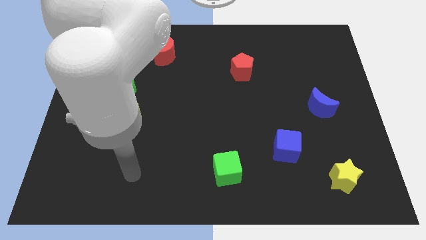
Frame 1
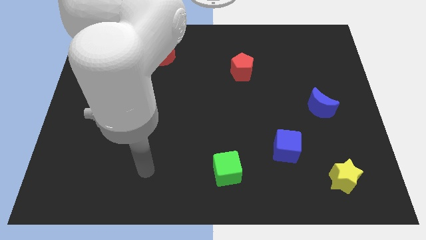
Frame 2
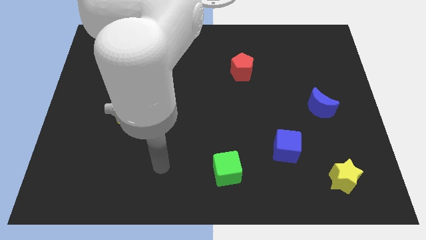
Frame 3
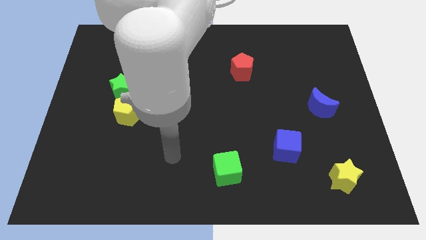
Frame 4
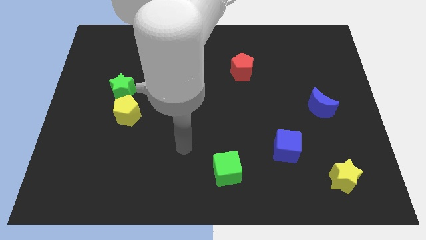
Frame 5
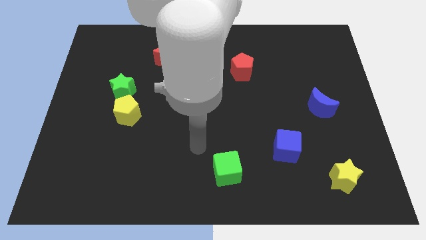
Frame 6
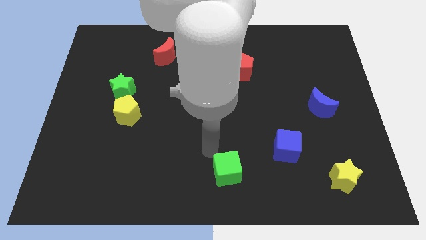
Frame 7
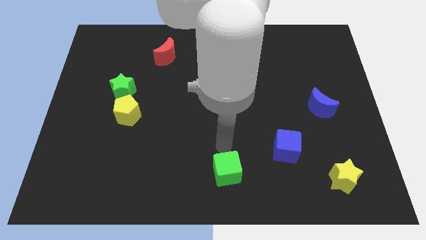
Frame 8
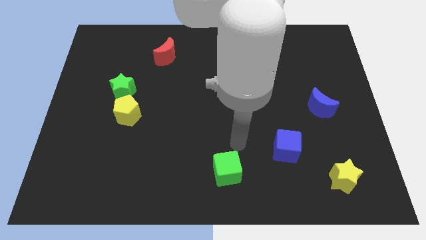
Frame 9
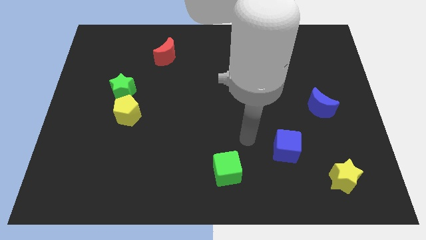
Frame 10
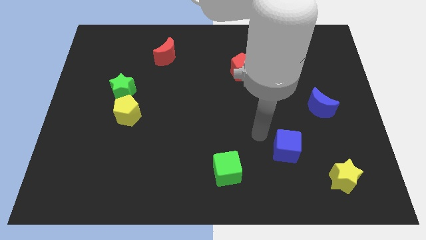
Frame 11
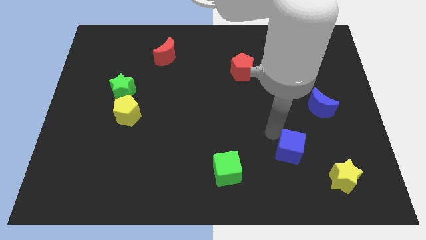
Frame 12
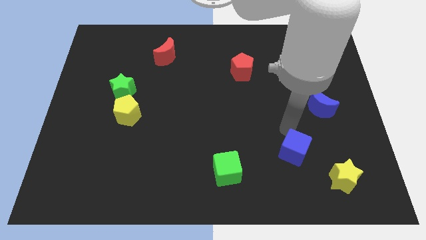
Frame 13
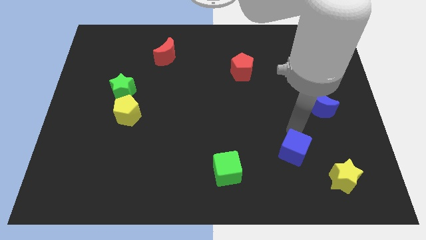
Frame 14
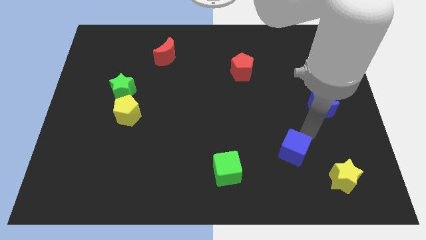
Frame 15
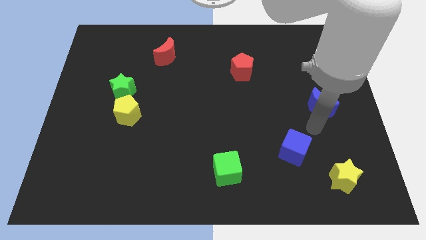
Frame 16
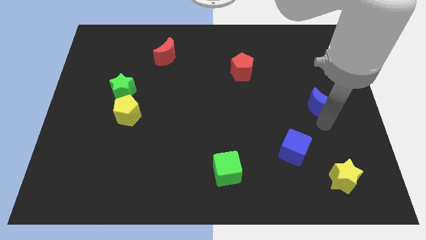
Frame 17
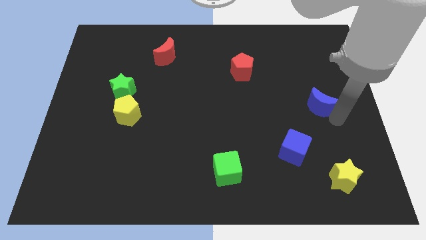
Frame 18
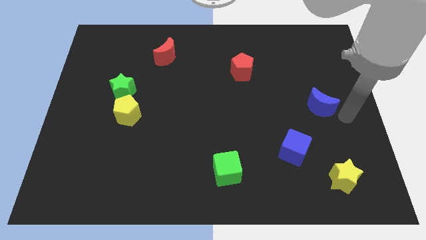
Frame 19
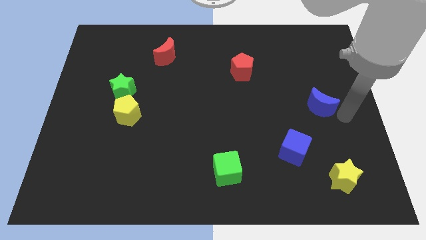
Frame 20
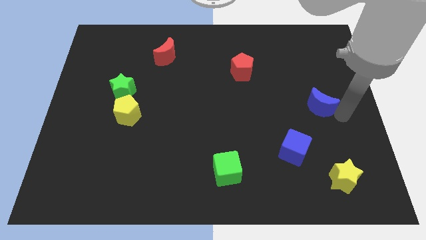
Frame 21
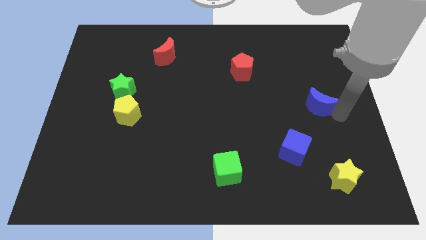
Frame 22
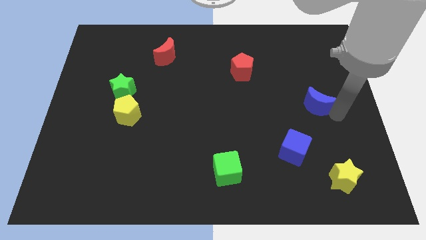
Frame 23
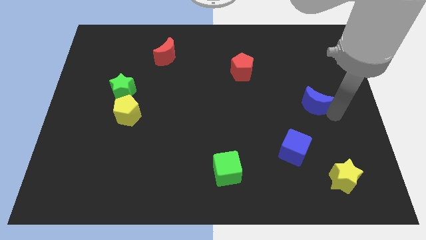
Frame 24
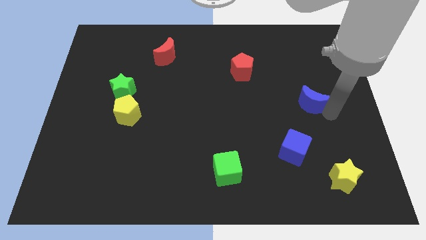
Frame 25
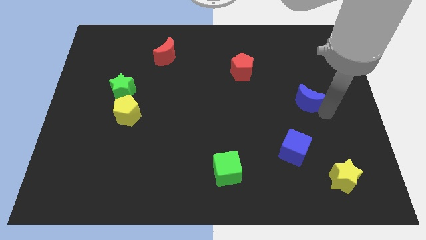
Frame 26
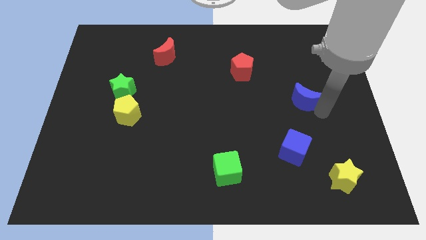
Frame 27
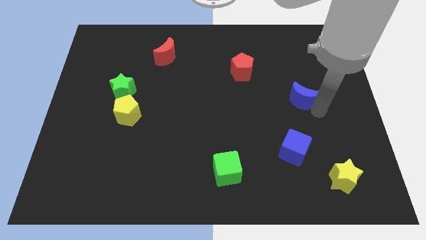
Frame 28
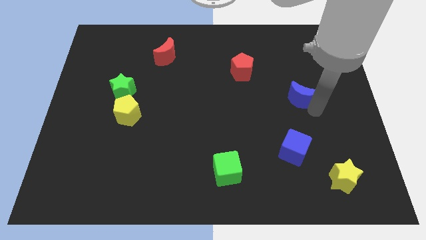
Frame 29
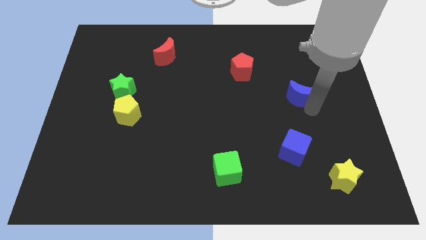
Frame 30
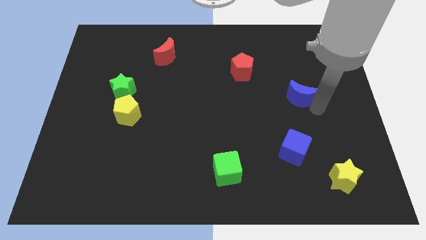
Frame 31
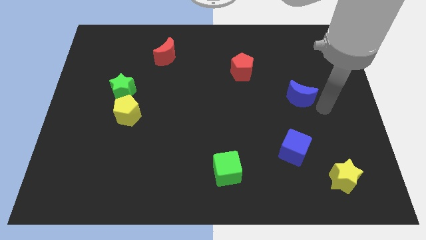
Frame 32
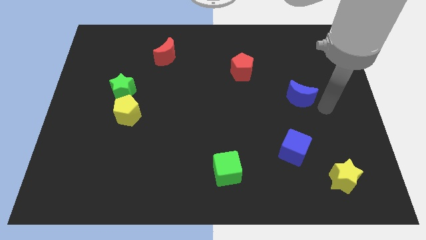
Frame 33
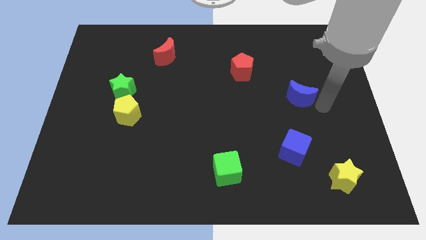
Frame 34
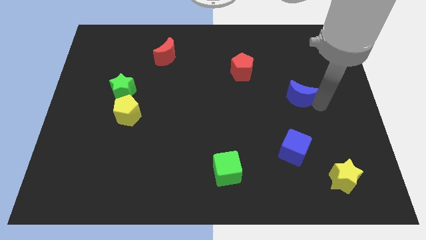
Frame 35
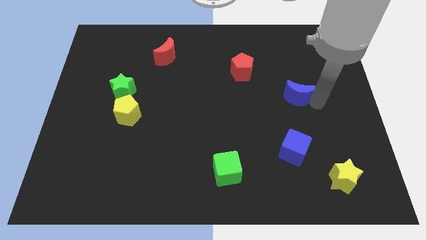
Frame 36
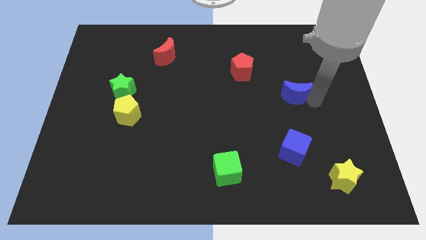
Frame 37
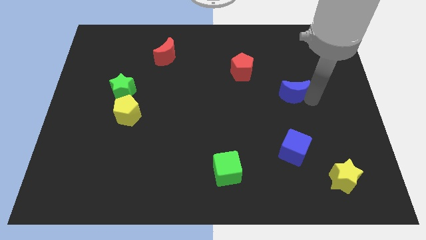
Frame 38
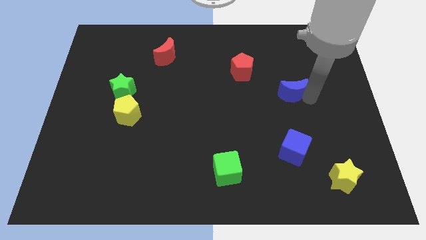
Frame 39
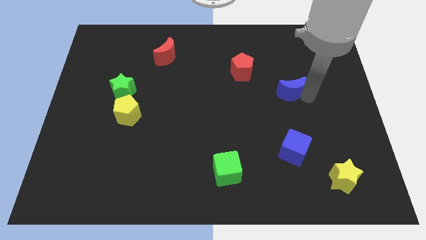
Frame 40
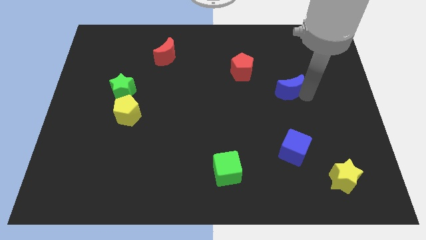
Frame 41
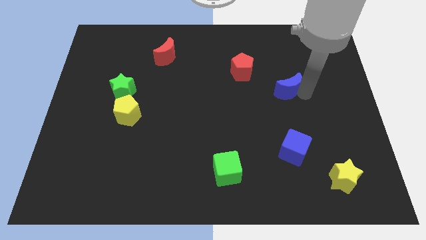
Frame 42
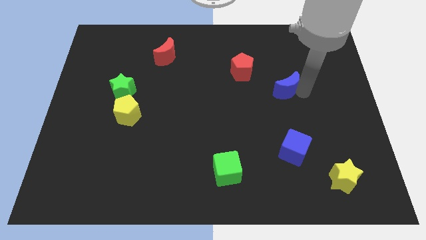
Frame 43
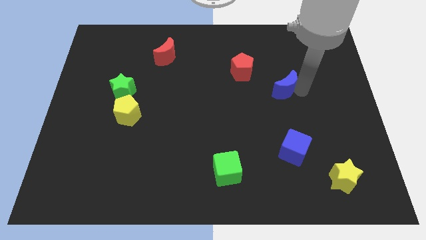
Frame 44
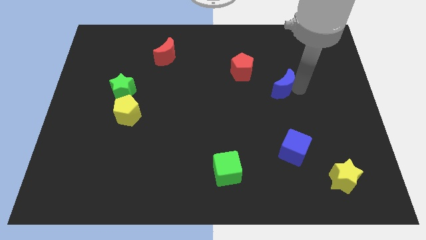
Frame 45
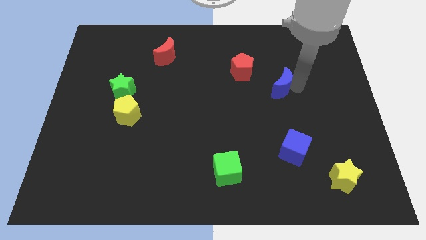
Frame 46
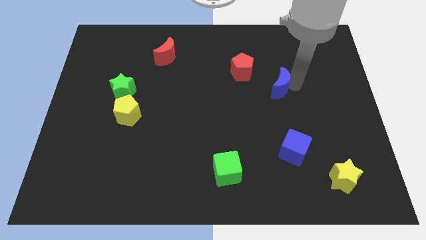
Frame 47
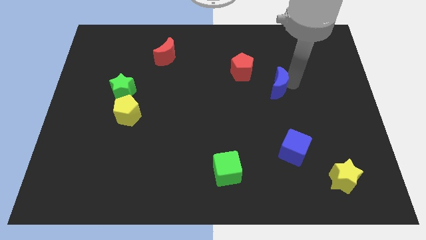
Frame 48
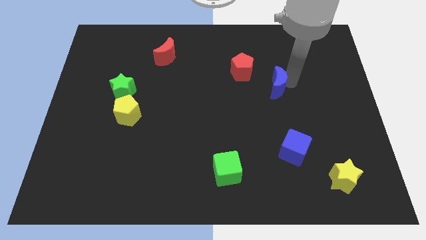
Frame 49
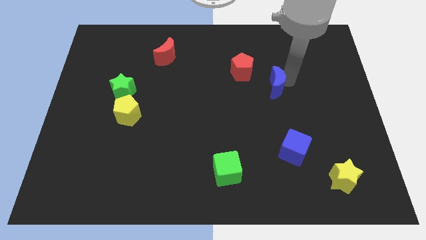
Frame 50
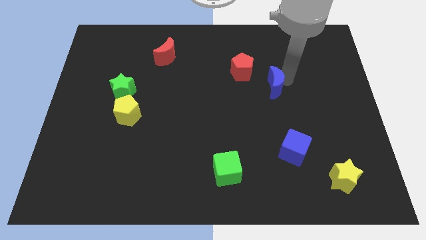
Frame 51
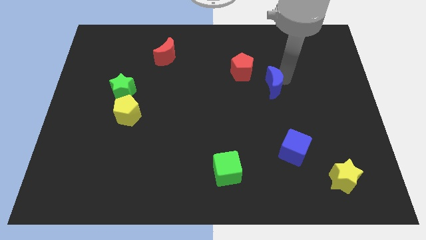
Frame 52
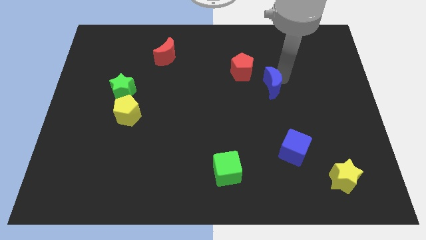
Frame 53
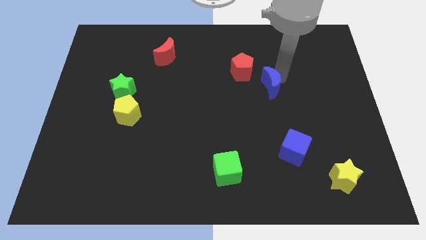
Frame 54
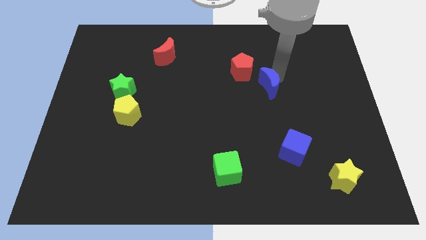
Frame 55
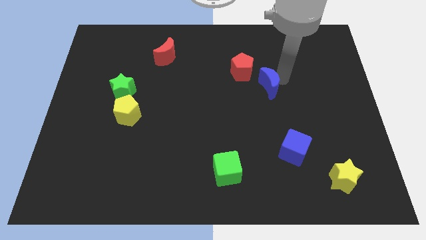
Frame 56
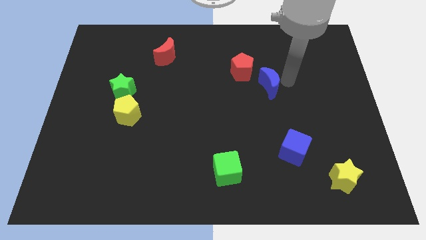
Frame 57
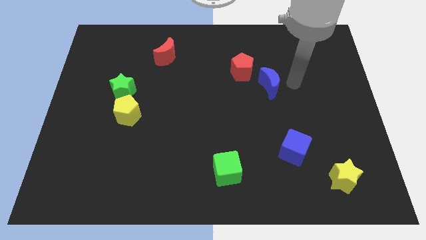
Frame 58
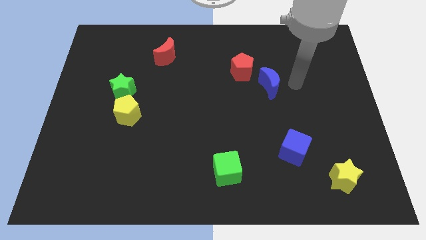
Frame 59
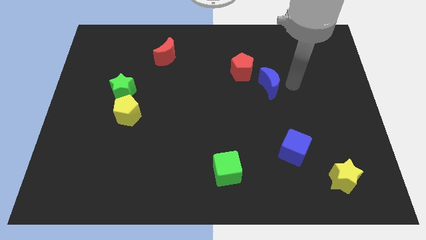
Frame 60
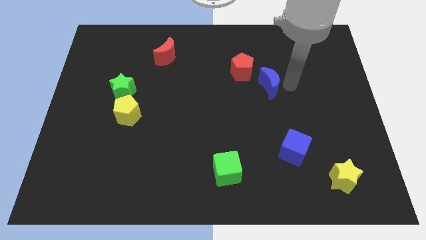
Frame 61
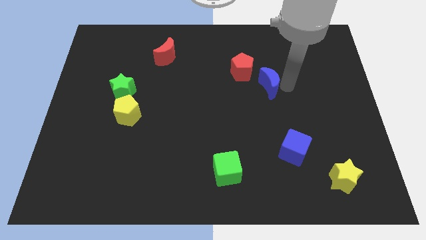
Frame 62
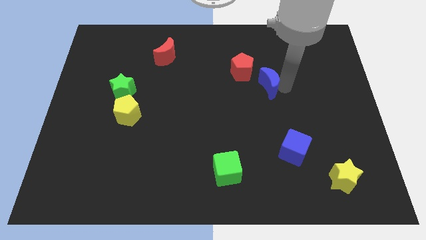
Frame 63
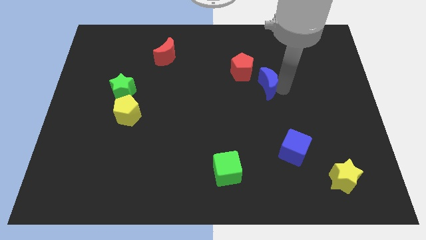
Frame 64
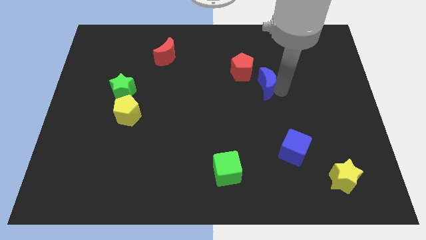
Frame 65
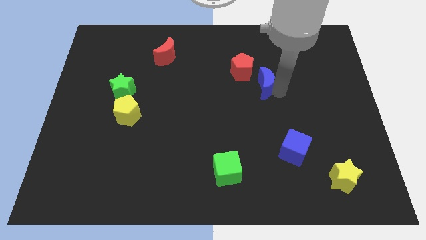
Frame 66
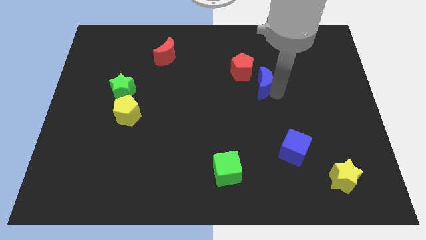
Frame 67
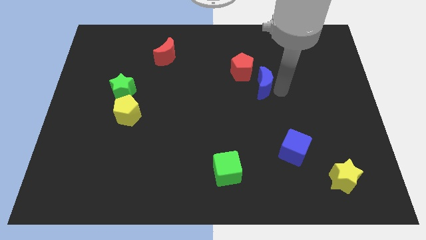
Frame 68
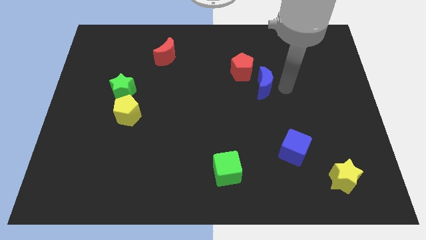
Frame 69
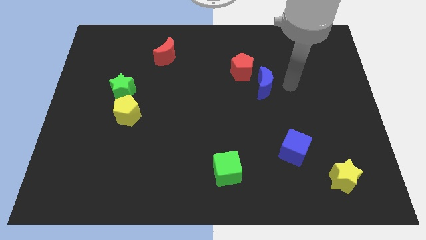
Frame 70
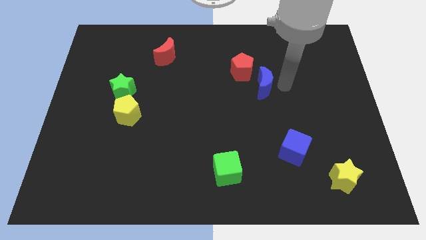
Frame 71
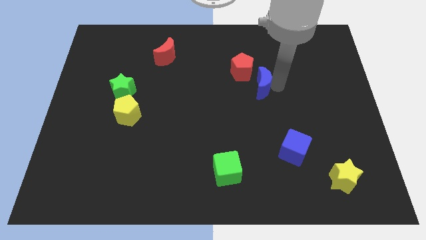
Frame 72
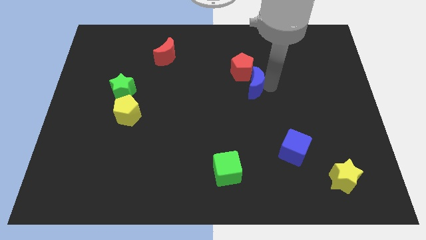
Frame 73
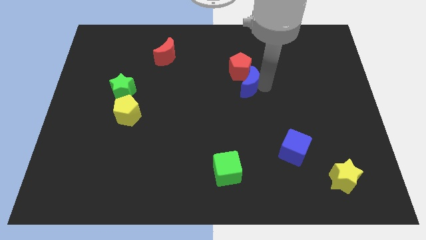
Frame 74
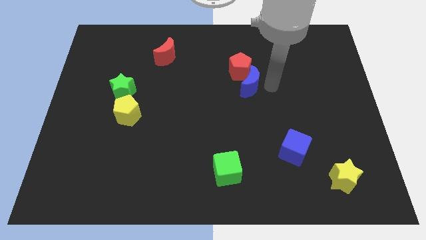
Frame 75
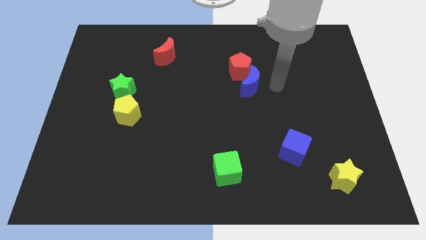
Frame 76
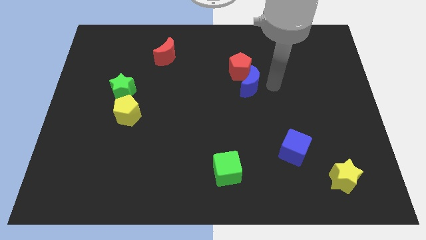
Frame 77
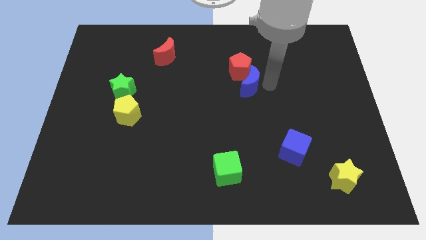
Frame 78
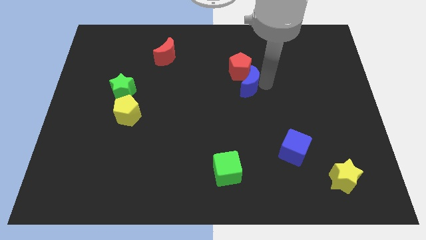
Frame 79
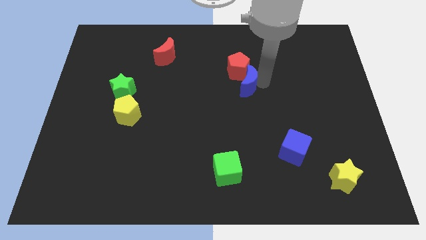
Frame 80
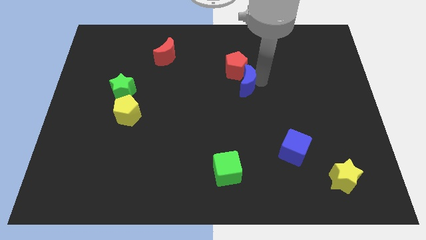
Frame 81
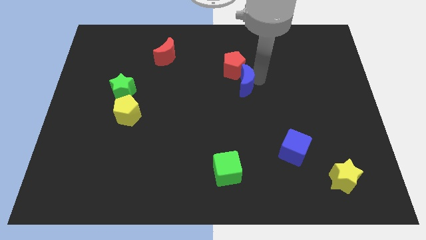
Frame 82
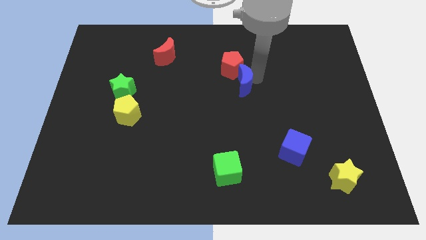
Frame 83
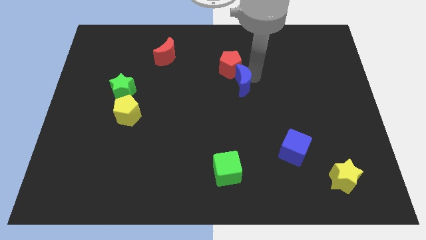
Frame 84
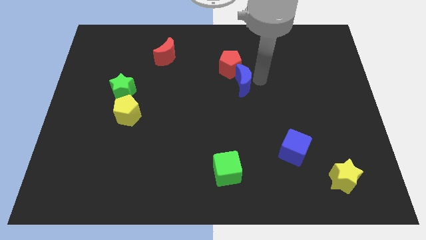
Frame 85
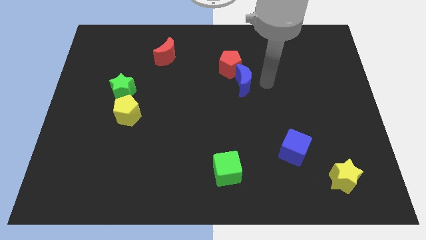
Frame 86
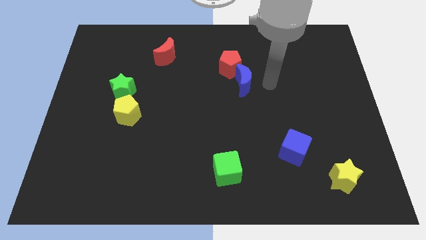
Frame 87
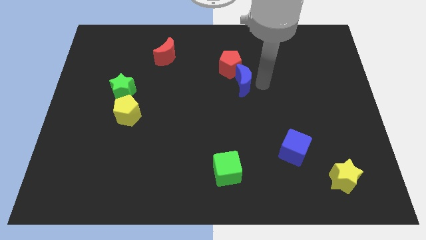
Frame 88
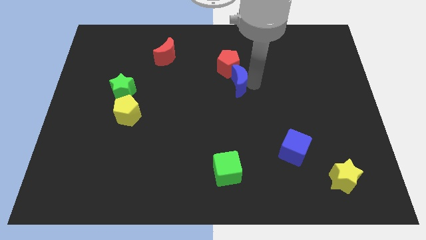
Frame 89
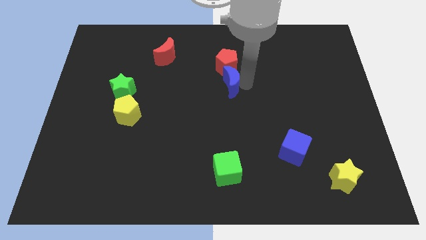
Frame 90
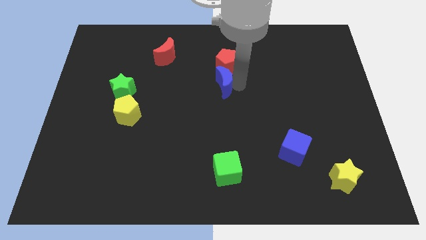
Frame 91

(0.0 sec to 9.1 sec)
move the blue moon to the bottom left side of the red pentagon
